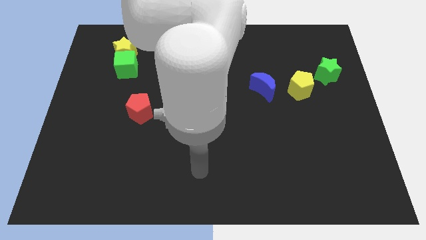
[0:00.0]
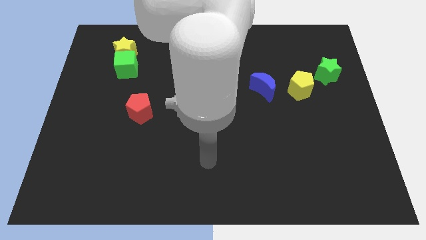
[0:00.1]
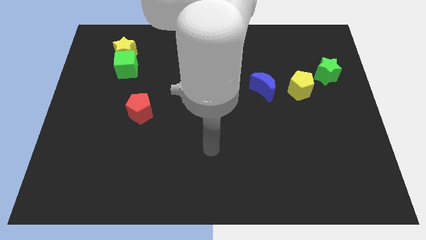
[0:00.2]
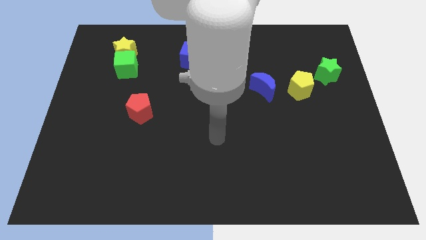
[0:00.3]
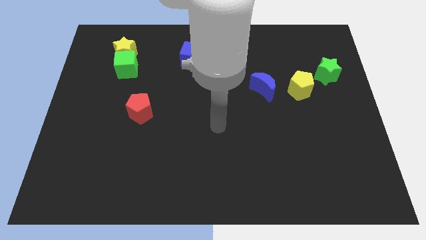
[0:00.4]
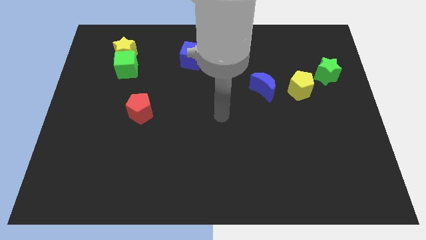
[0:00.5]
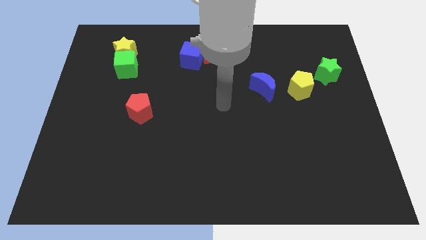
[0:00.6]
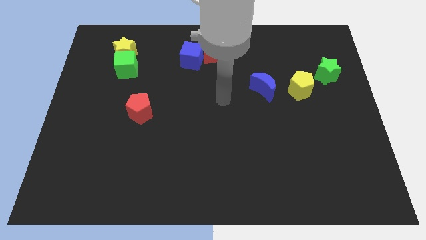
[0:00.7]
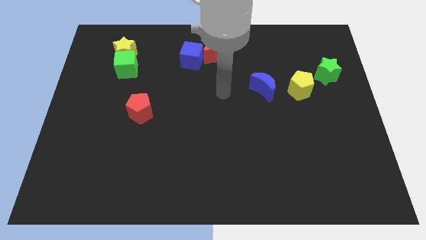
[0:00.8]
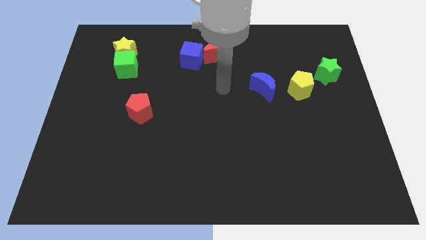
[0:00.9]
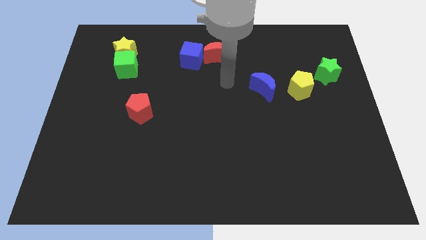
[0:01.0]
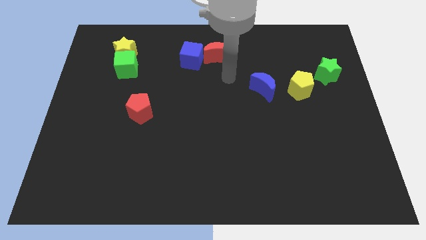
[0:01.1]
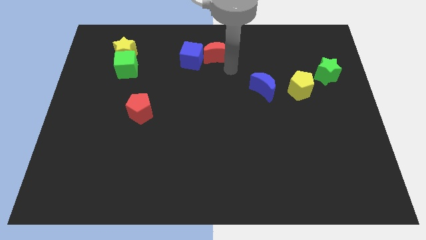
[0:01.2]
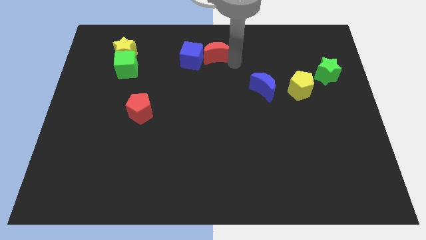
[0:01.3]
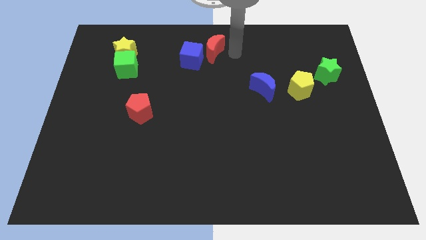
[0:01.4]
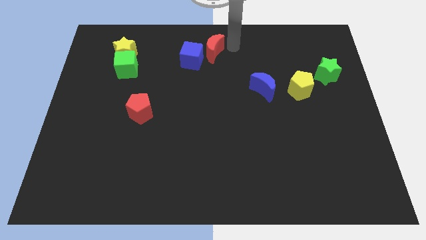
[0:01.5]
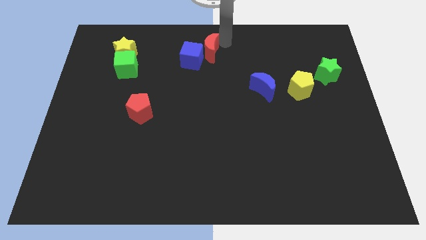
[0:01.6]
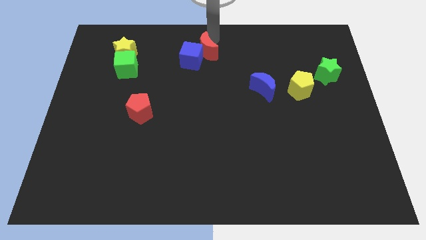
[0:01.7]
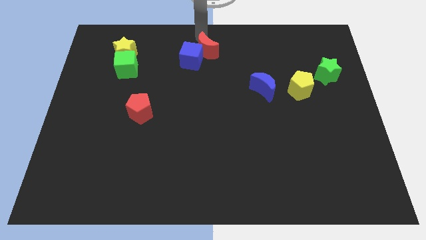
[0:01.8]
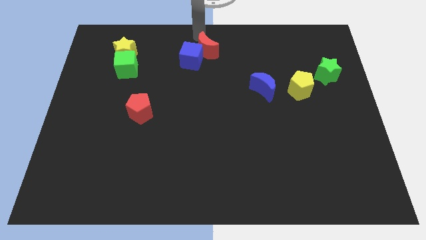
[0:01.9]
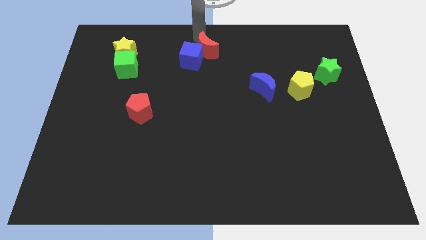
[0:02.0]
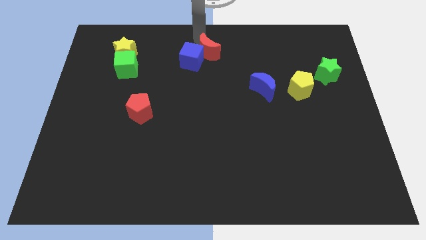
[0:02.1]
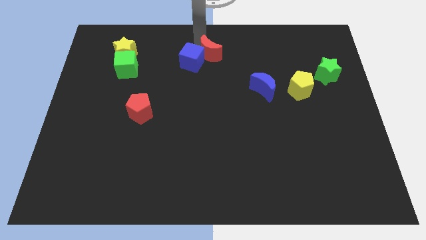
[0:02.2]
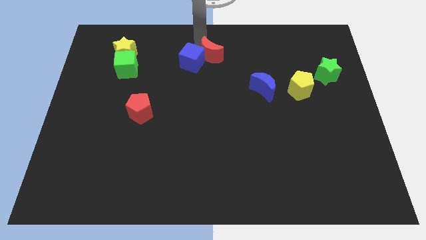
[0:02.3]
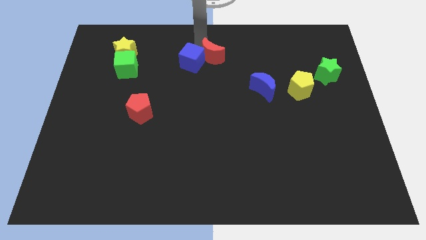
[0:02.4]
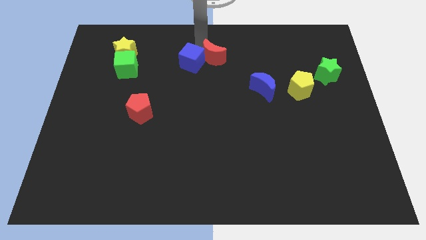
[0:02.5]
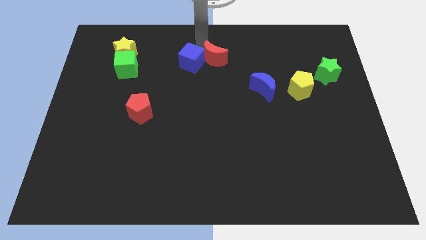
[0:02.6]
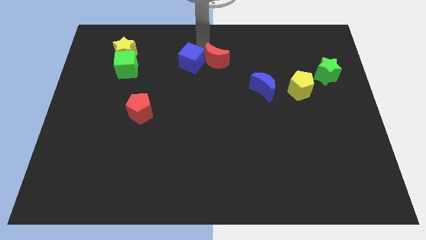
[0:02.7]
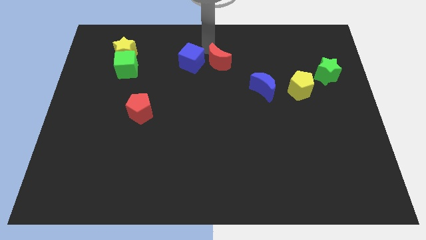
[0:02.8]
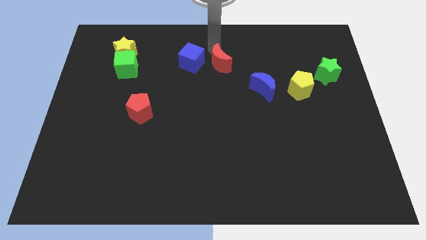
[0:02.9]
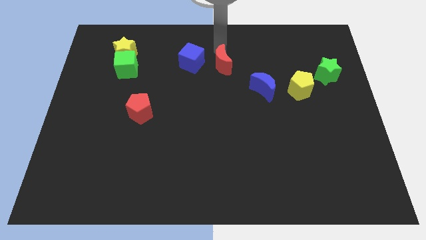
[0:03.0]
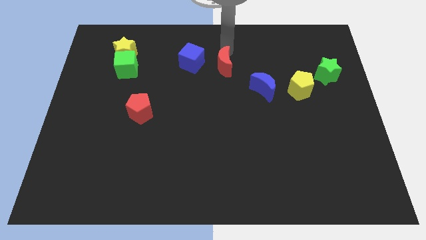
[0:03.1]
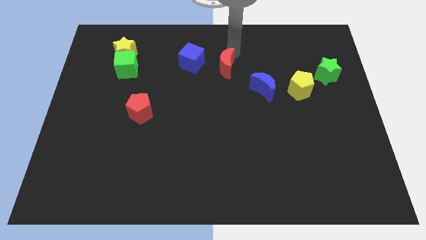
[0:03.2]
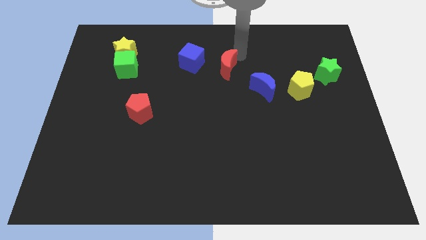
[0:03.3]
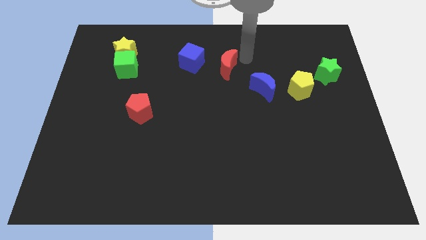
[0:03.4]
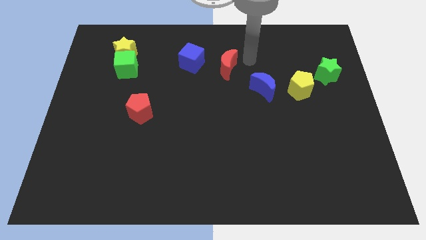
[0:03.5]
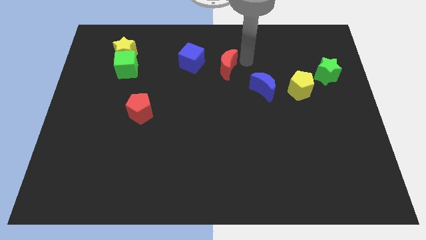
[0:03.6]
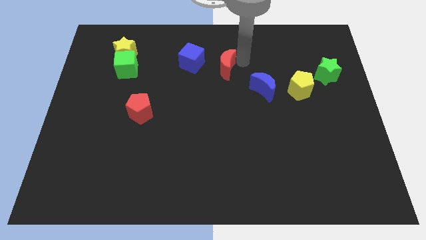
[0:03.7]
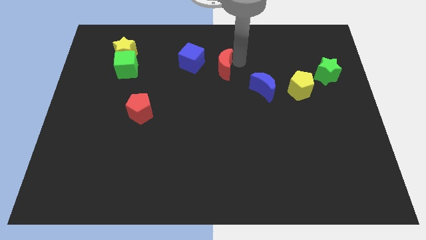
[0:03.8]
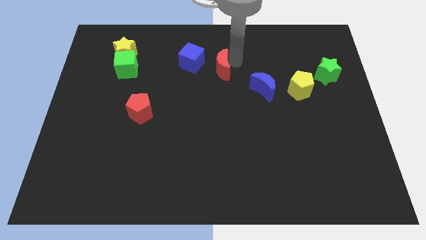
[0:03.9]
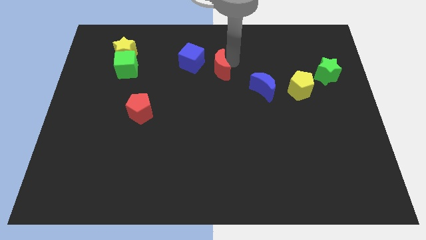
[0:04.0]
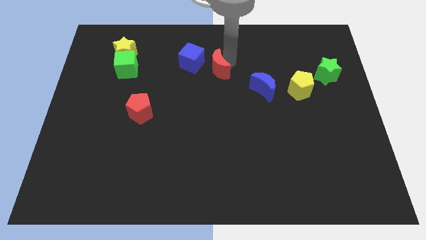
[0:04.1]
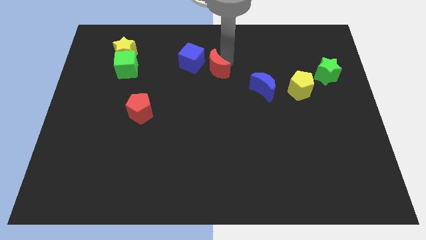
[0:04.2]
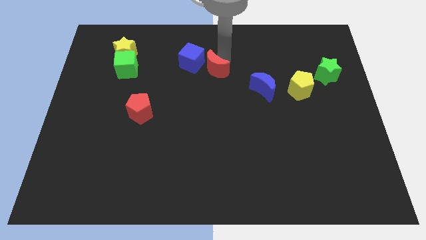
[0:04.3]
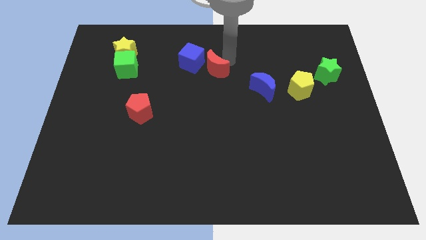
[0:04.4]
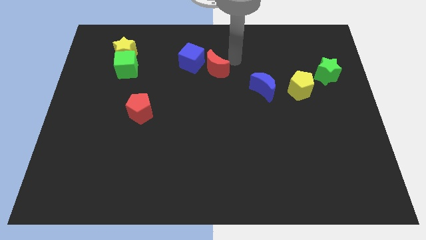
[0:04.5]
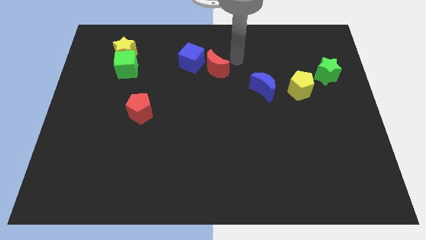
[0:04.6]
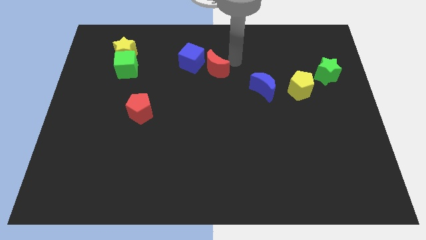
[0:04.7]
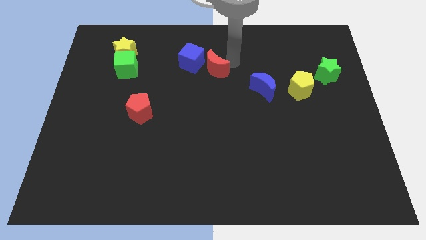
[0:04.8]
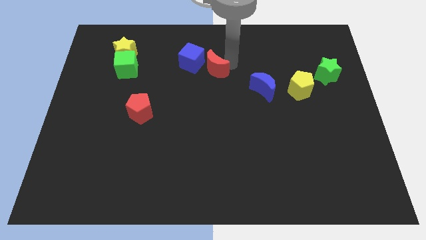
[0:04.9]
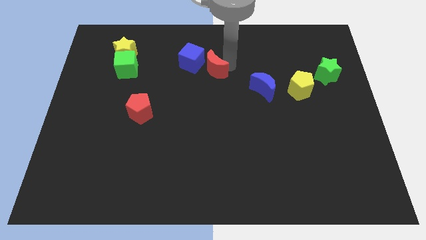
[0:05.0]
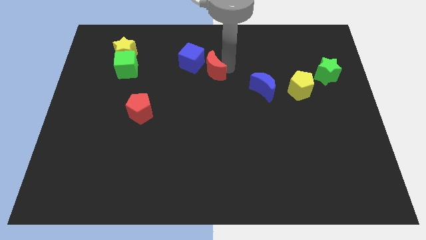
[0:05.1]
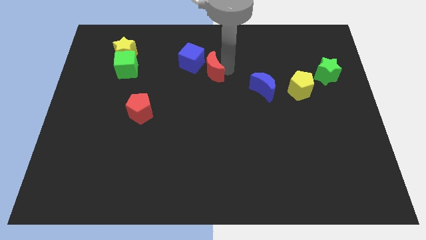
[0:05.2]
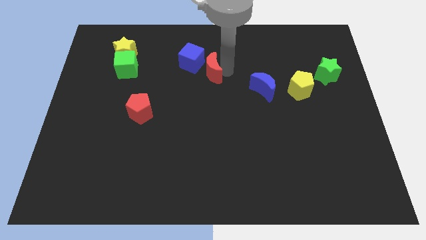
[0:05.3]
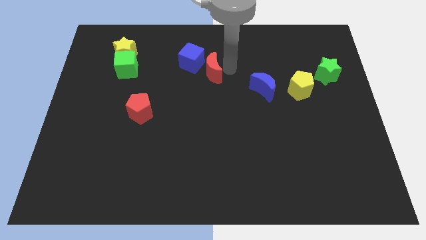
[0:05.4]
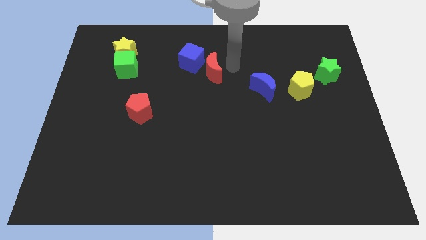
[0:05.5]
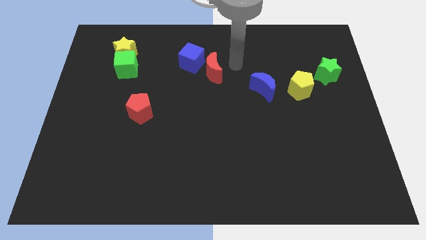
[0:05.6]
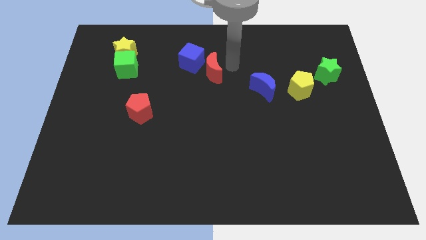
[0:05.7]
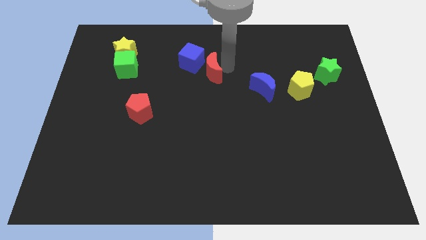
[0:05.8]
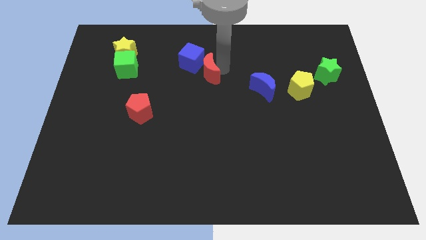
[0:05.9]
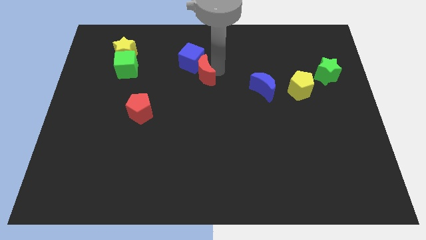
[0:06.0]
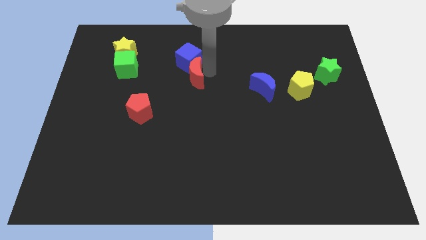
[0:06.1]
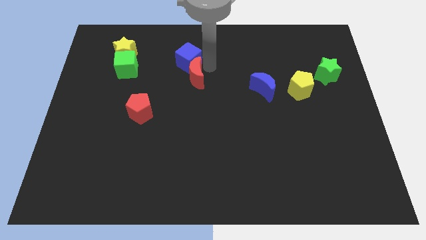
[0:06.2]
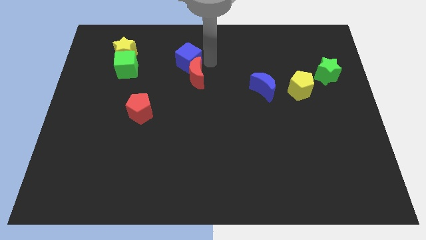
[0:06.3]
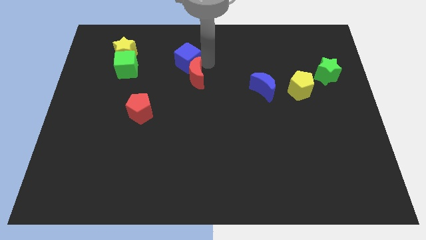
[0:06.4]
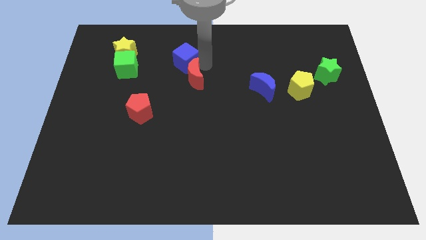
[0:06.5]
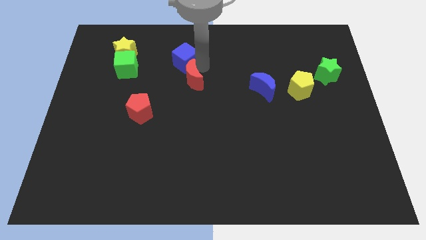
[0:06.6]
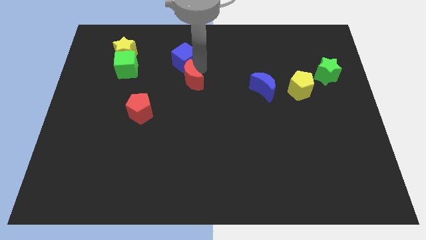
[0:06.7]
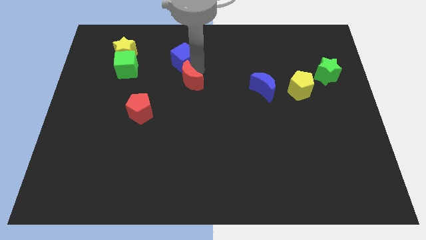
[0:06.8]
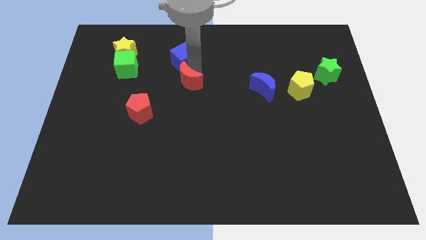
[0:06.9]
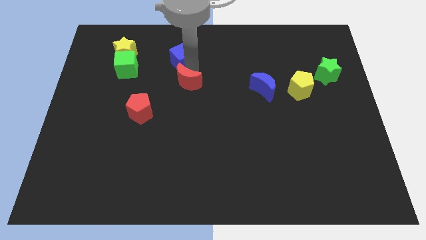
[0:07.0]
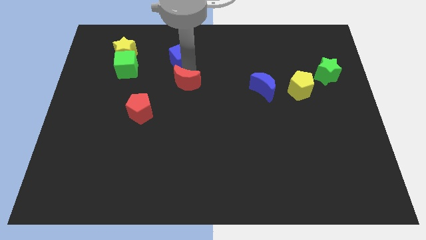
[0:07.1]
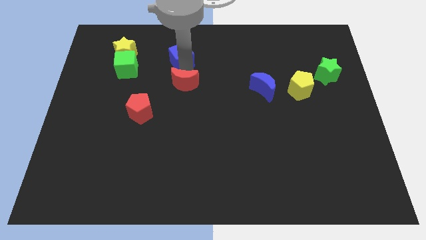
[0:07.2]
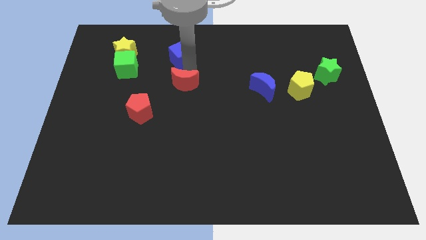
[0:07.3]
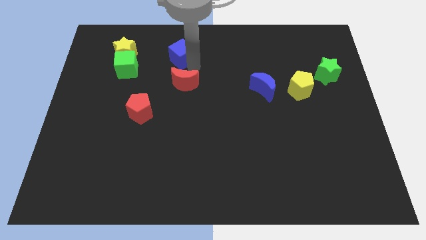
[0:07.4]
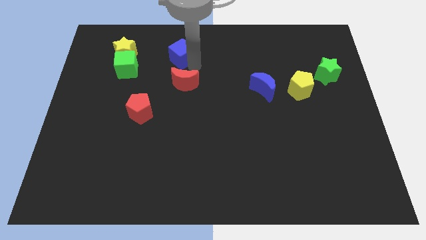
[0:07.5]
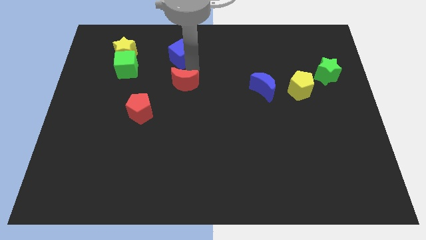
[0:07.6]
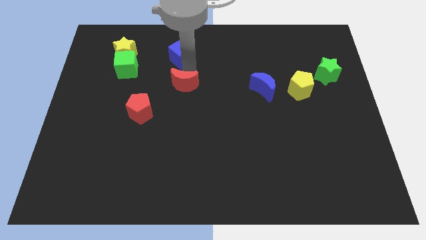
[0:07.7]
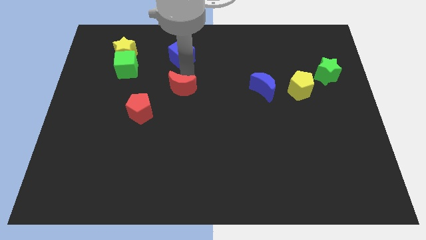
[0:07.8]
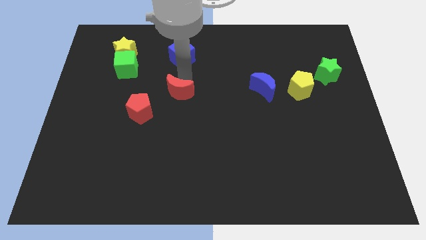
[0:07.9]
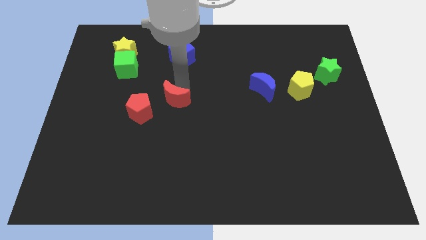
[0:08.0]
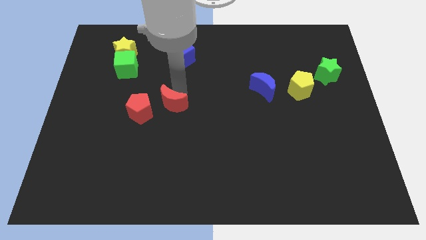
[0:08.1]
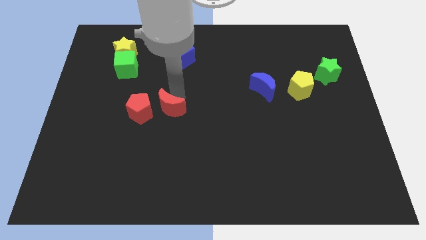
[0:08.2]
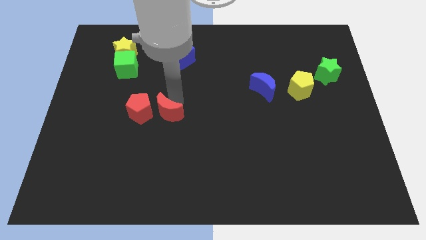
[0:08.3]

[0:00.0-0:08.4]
slide the red moon diagonally down and to the left

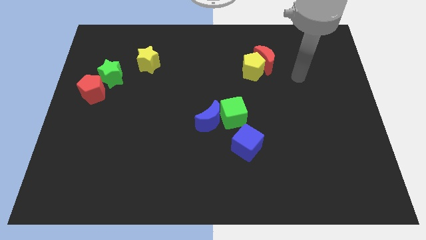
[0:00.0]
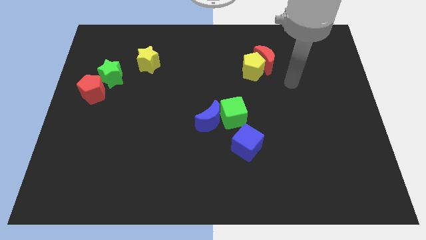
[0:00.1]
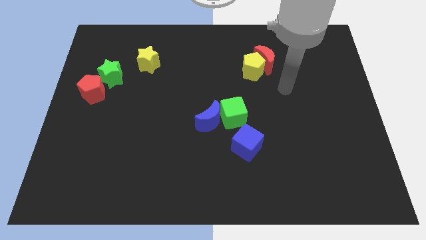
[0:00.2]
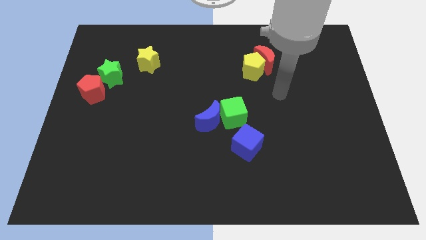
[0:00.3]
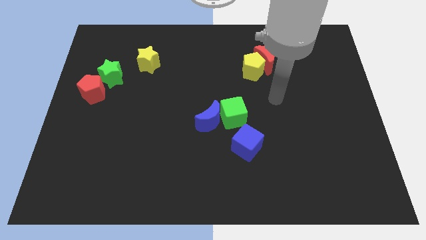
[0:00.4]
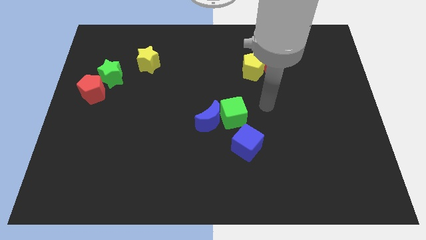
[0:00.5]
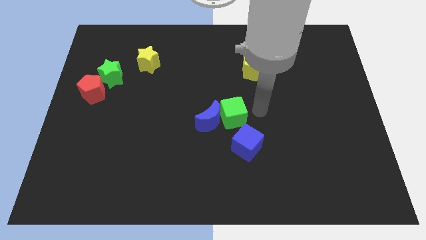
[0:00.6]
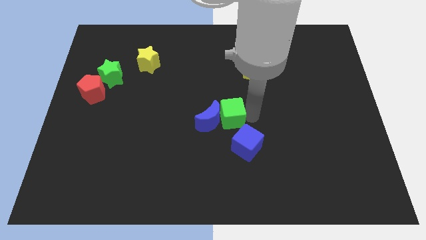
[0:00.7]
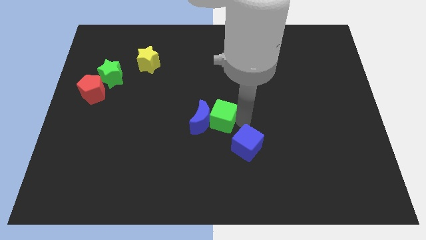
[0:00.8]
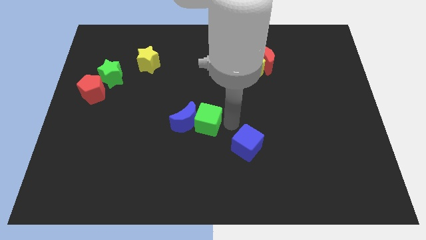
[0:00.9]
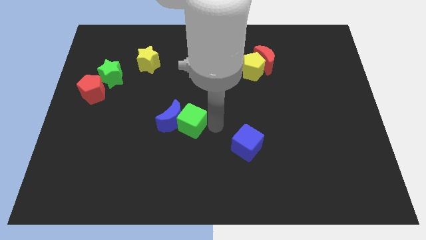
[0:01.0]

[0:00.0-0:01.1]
slightly move the blue moon left
